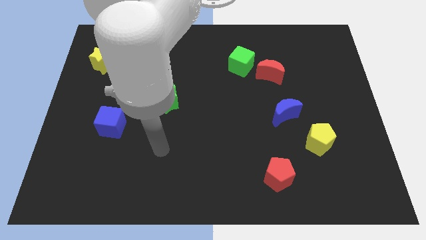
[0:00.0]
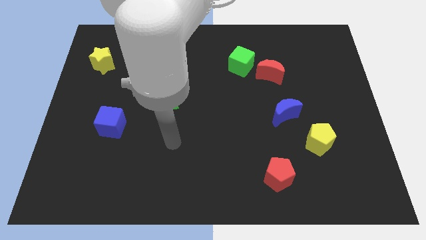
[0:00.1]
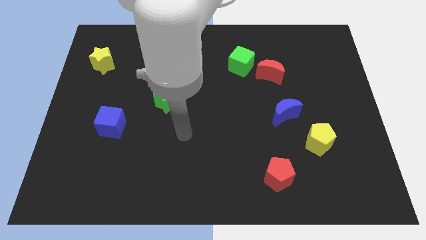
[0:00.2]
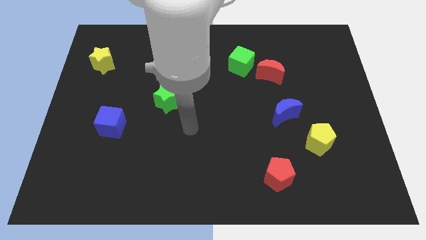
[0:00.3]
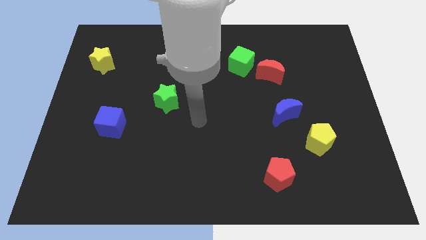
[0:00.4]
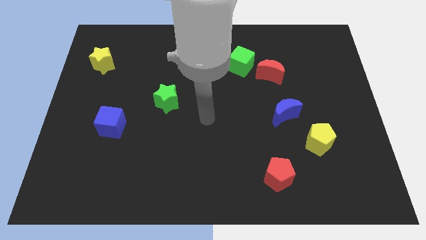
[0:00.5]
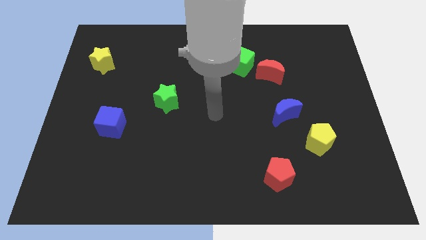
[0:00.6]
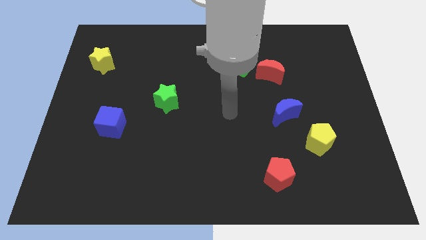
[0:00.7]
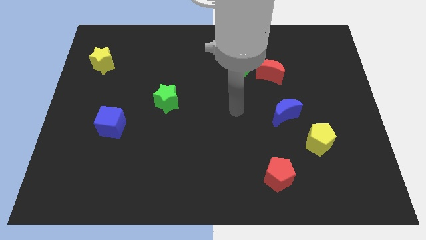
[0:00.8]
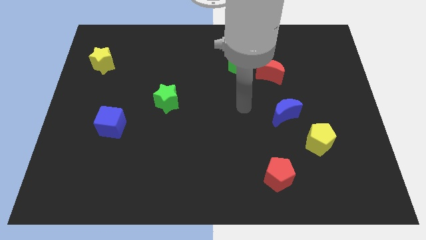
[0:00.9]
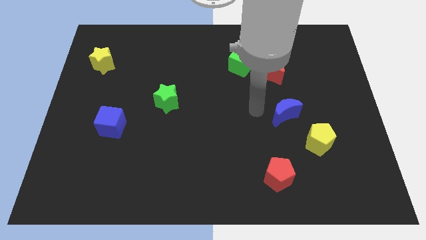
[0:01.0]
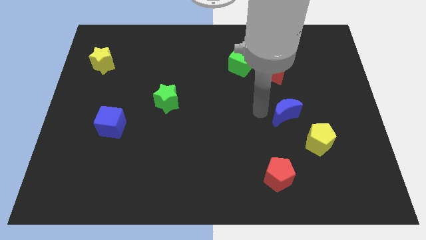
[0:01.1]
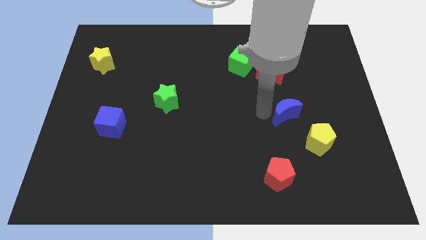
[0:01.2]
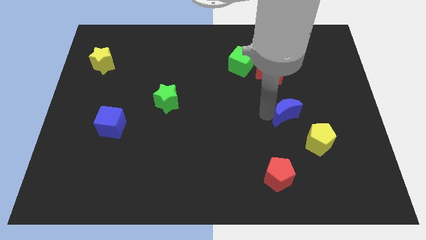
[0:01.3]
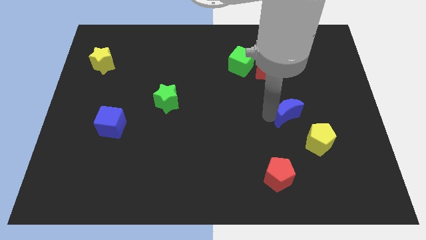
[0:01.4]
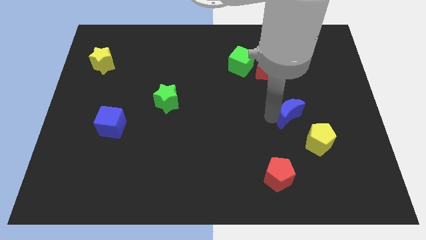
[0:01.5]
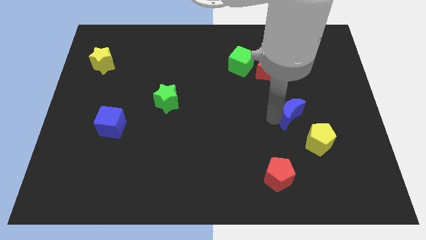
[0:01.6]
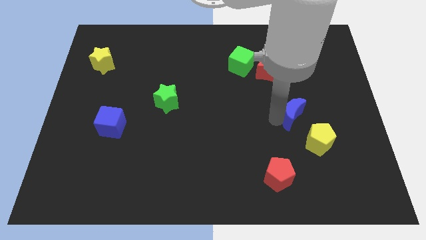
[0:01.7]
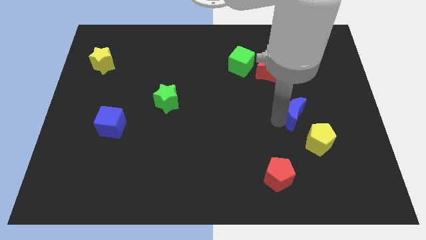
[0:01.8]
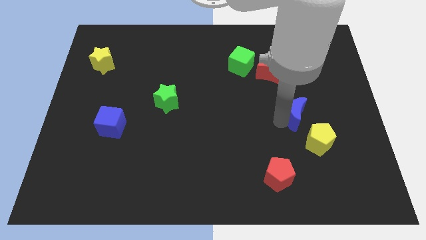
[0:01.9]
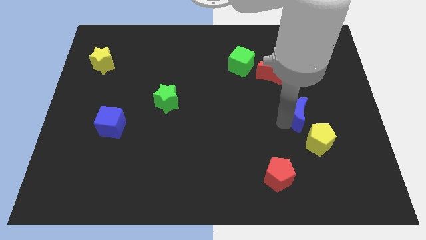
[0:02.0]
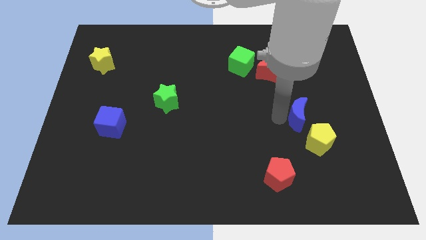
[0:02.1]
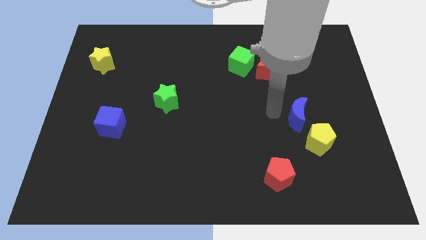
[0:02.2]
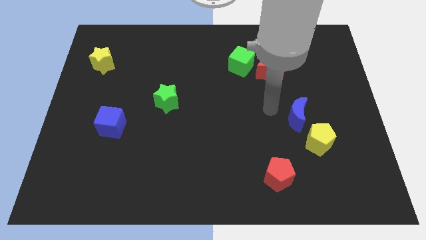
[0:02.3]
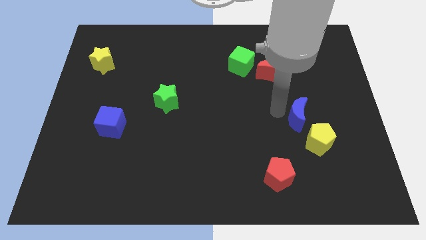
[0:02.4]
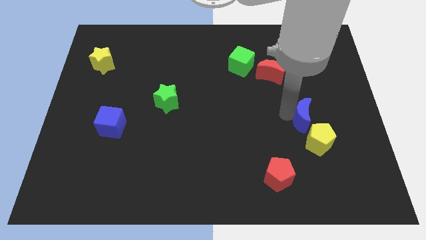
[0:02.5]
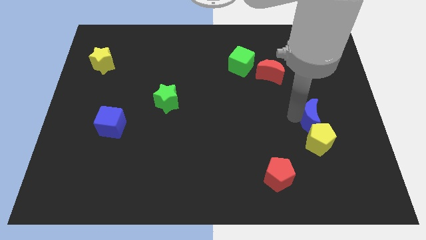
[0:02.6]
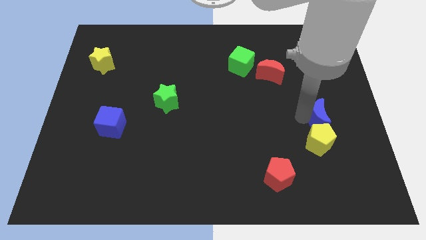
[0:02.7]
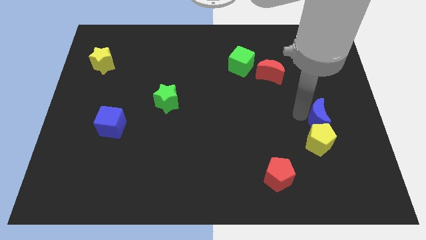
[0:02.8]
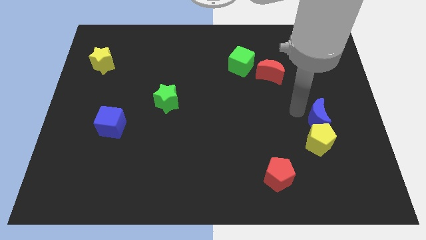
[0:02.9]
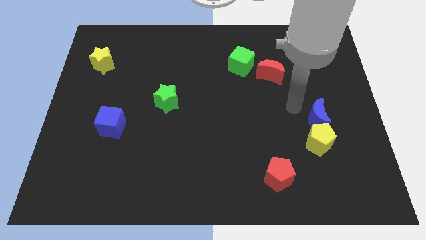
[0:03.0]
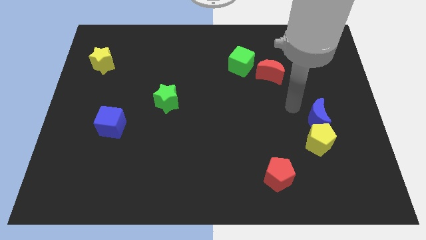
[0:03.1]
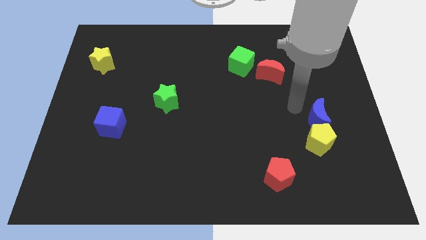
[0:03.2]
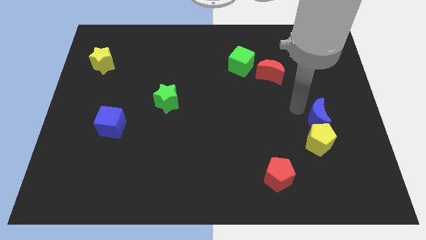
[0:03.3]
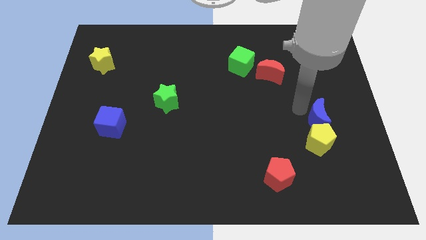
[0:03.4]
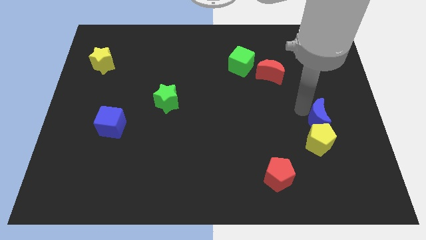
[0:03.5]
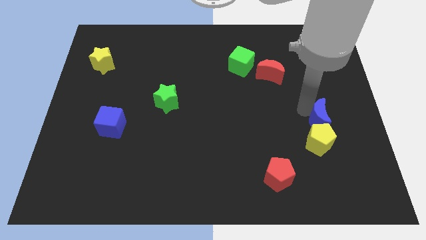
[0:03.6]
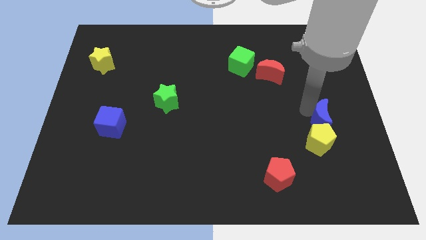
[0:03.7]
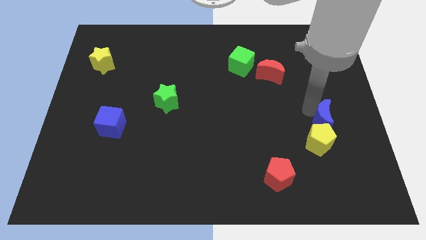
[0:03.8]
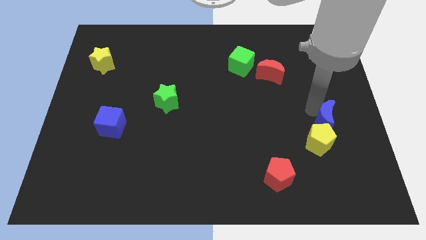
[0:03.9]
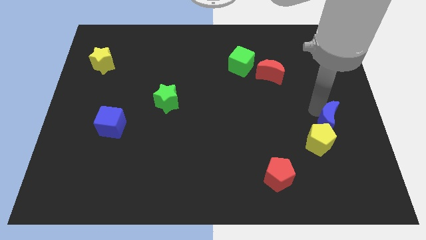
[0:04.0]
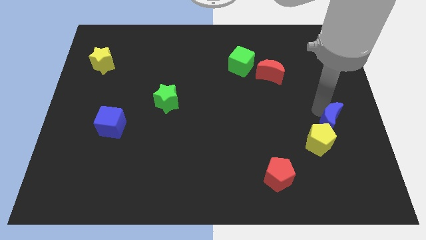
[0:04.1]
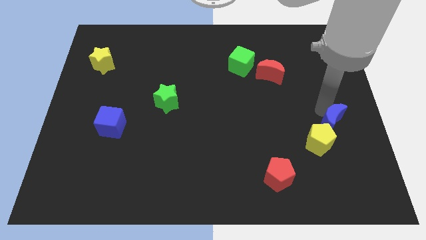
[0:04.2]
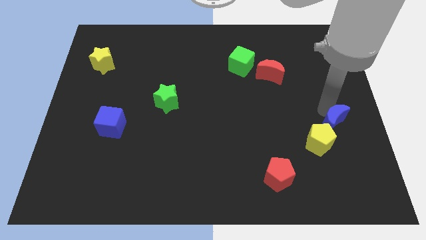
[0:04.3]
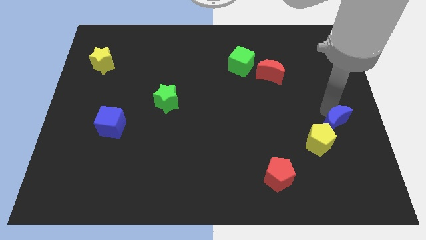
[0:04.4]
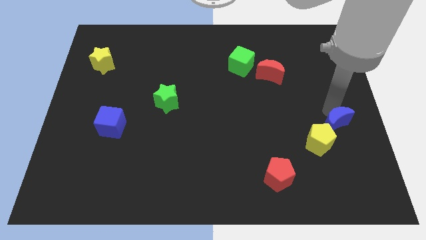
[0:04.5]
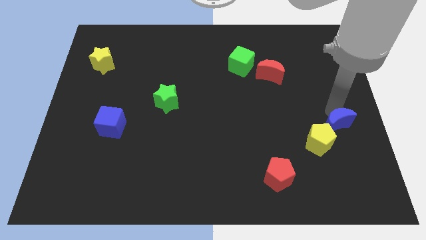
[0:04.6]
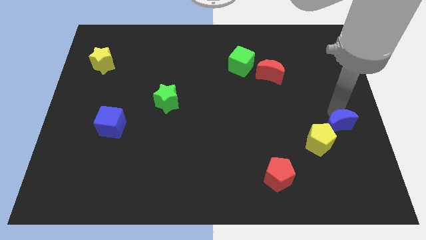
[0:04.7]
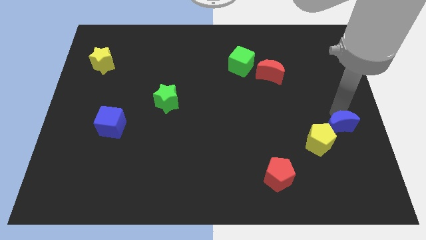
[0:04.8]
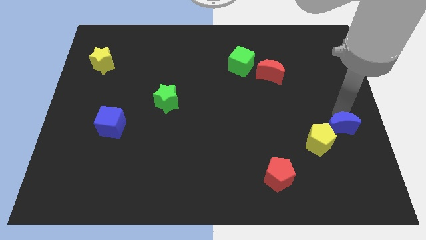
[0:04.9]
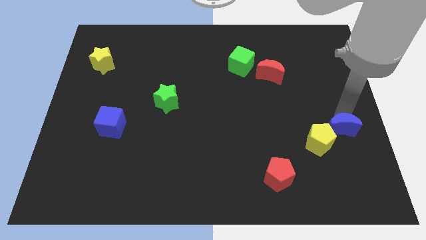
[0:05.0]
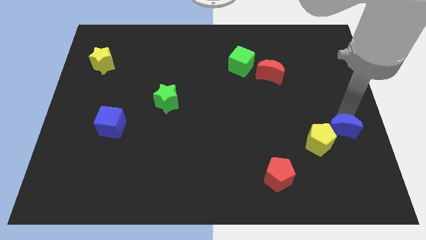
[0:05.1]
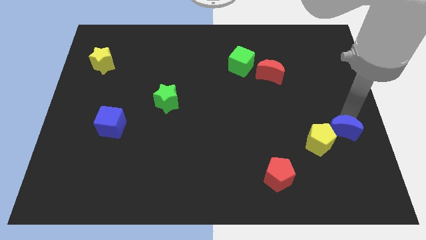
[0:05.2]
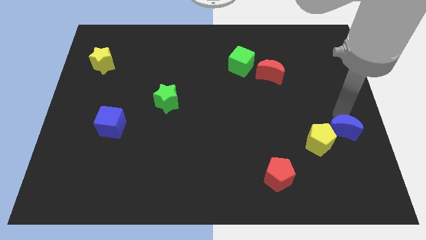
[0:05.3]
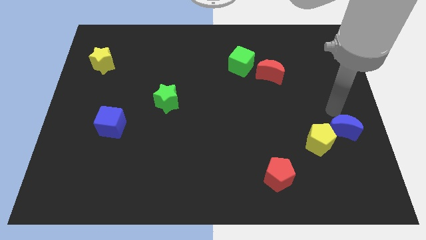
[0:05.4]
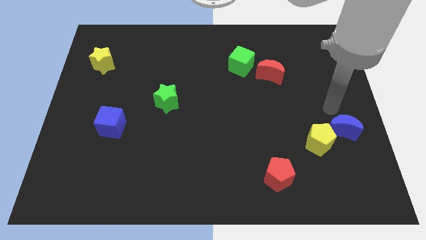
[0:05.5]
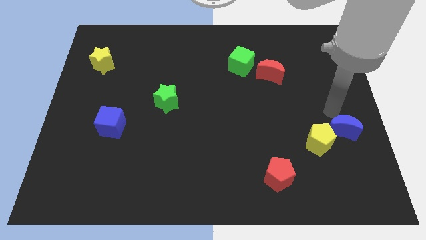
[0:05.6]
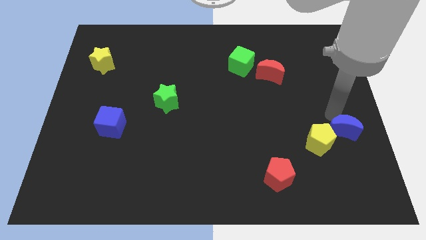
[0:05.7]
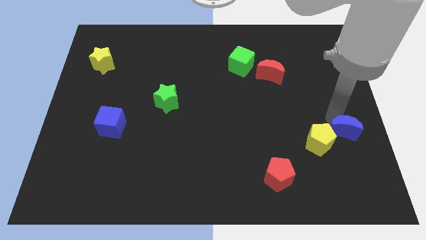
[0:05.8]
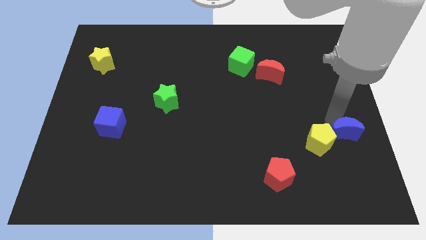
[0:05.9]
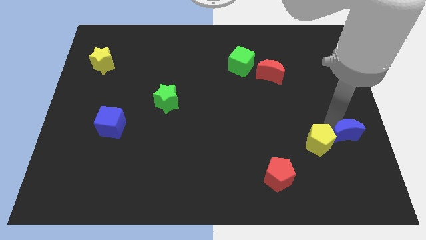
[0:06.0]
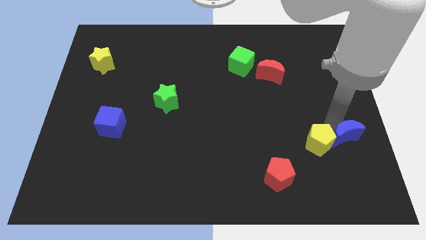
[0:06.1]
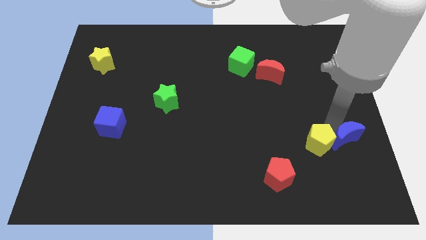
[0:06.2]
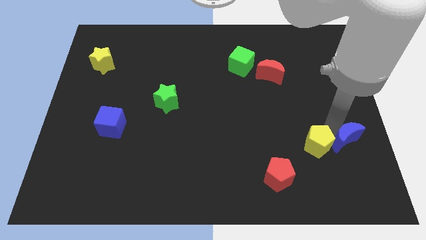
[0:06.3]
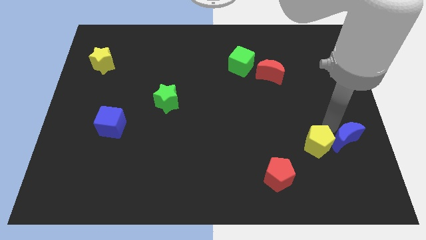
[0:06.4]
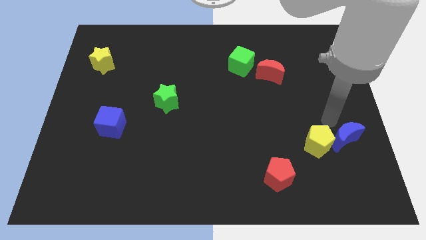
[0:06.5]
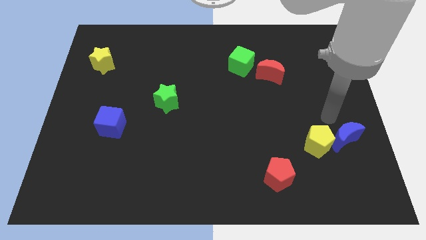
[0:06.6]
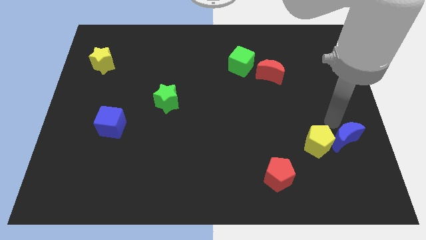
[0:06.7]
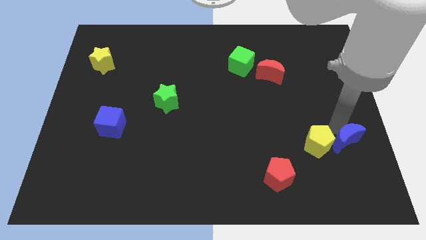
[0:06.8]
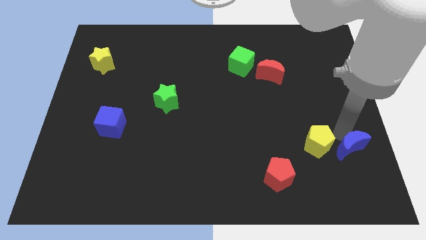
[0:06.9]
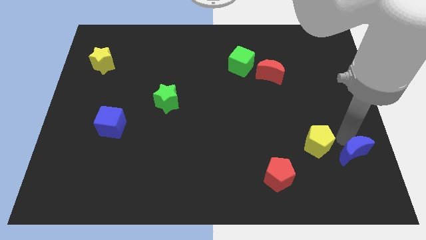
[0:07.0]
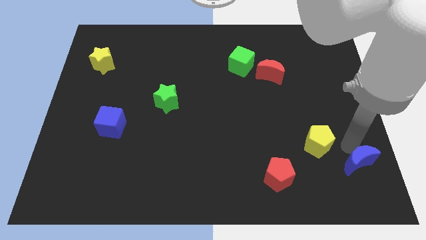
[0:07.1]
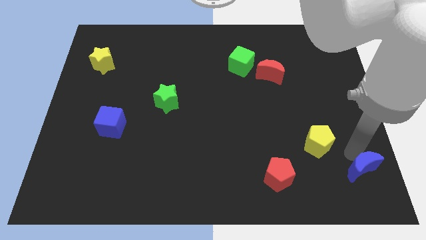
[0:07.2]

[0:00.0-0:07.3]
slide the blue moon to the lower right corner

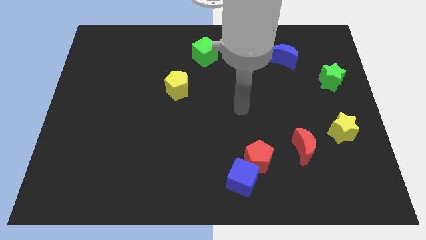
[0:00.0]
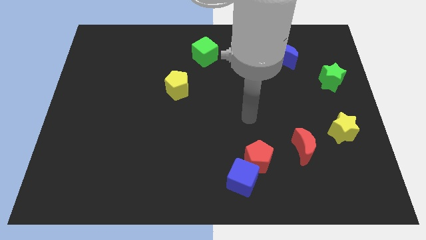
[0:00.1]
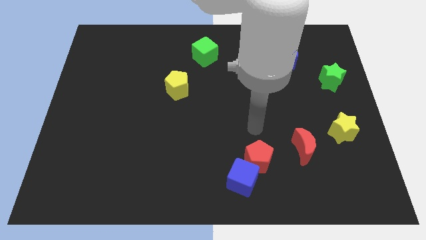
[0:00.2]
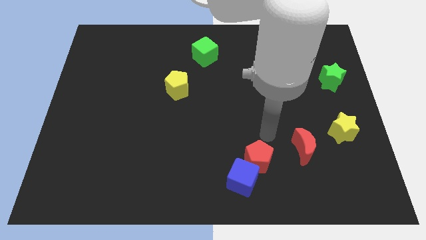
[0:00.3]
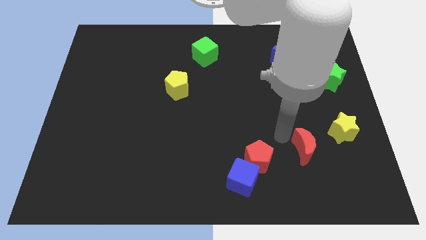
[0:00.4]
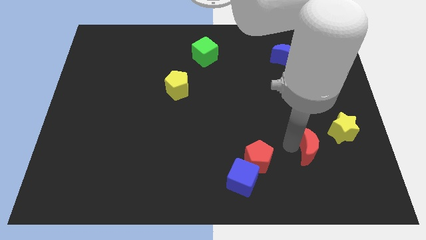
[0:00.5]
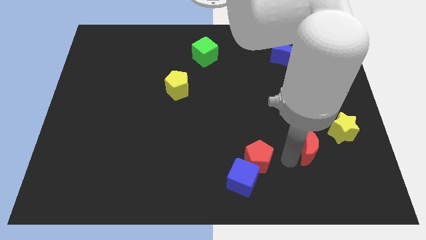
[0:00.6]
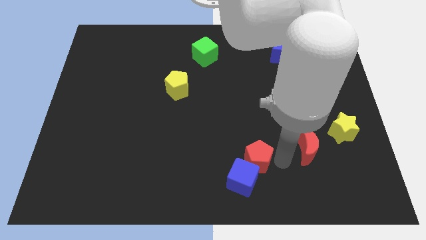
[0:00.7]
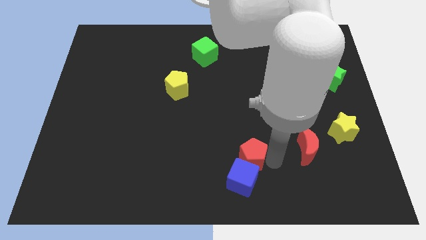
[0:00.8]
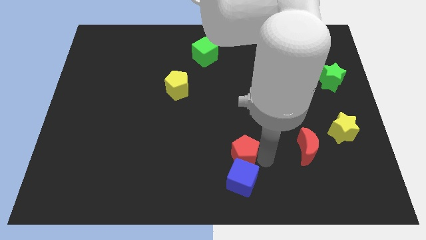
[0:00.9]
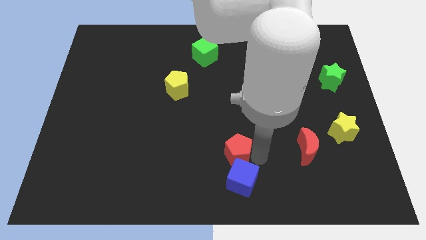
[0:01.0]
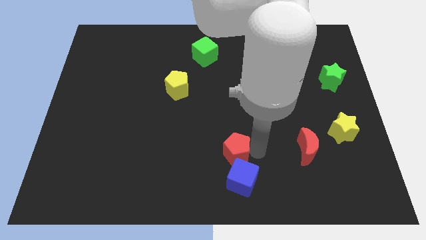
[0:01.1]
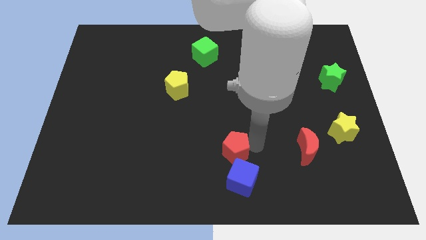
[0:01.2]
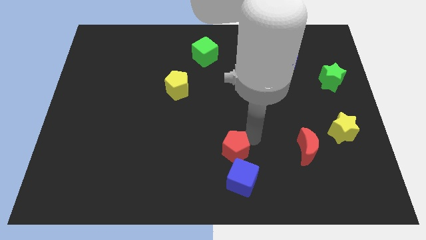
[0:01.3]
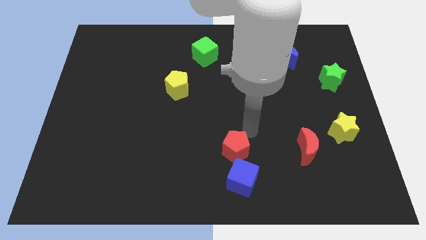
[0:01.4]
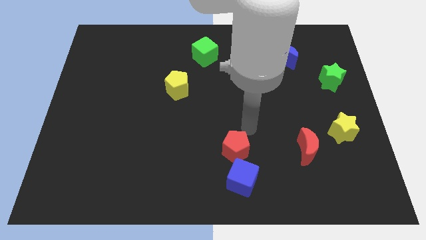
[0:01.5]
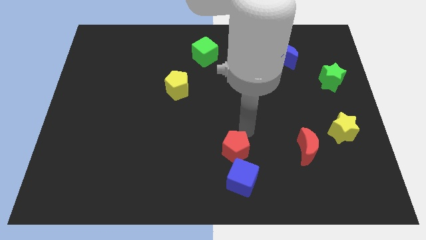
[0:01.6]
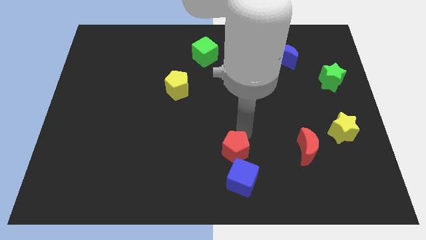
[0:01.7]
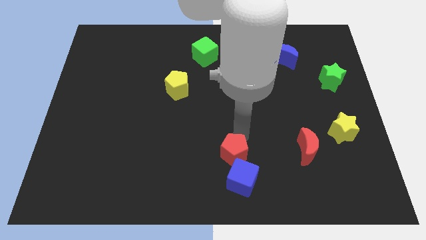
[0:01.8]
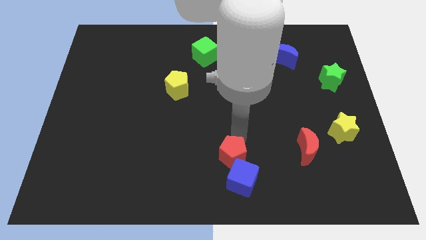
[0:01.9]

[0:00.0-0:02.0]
slide the red pentagon to the bottom side
